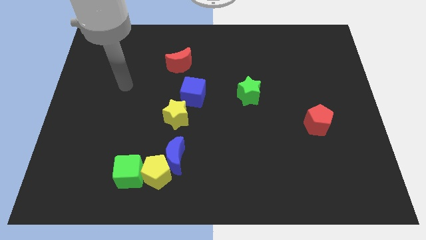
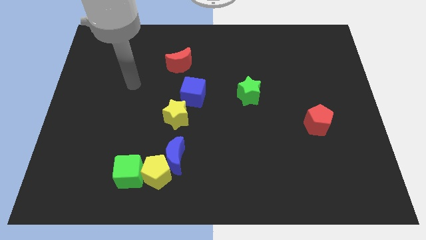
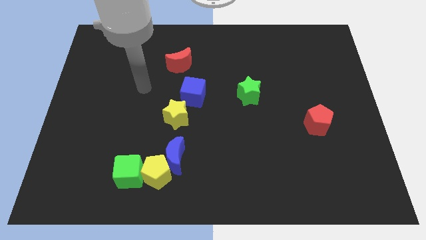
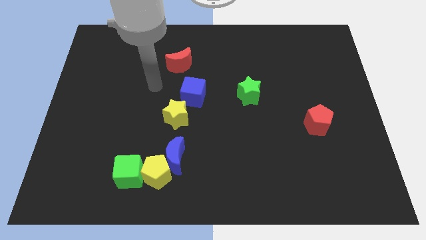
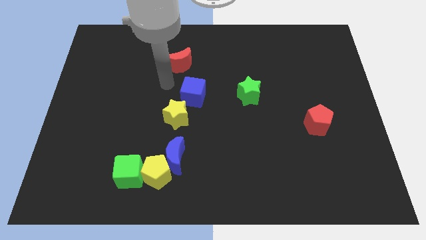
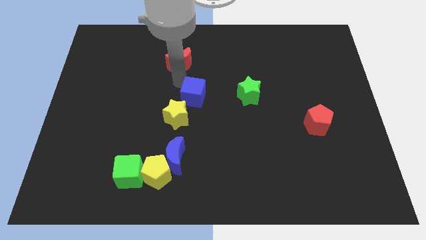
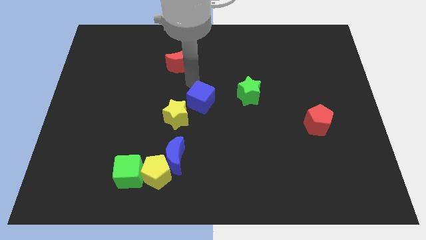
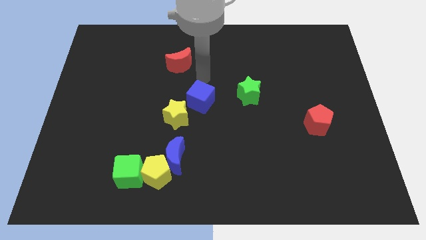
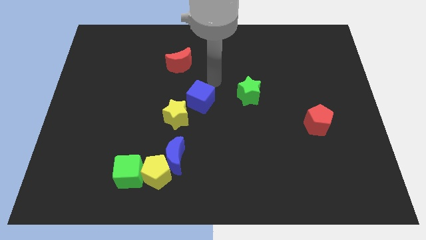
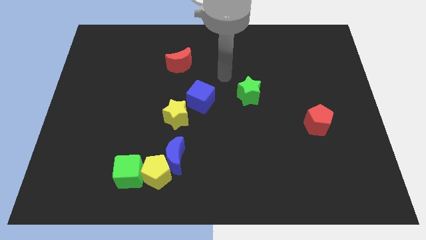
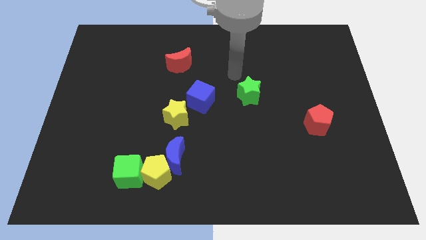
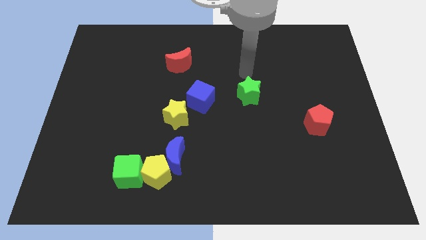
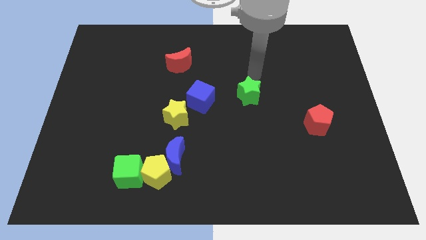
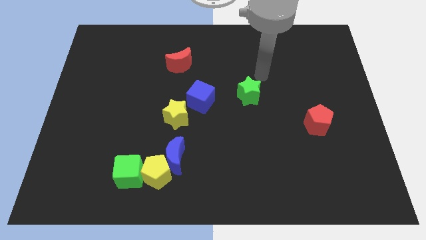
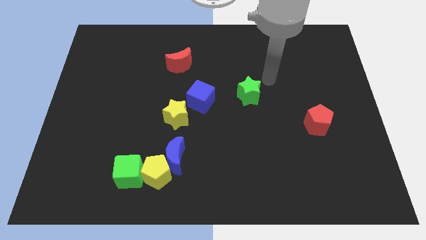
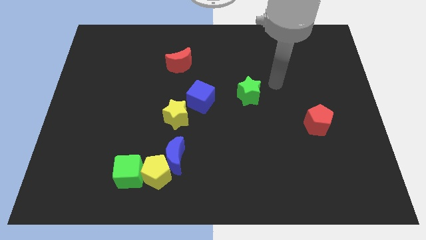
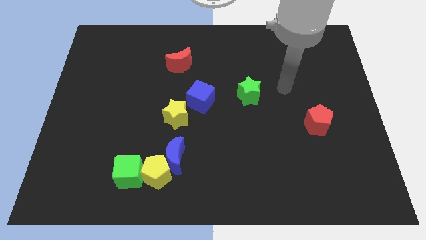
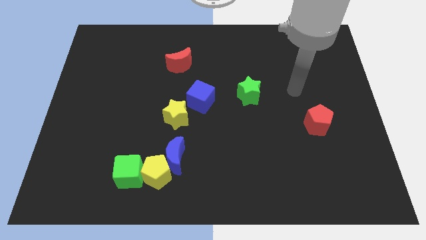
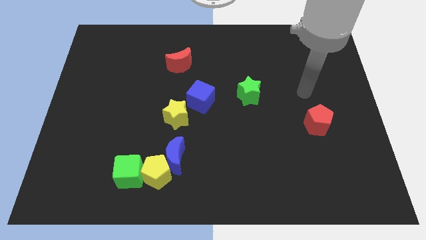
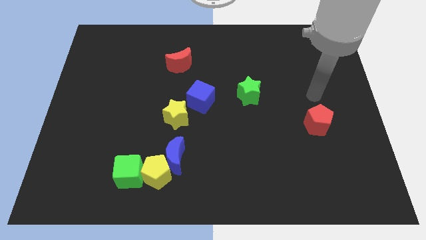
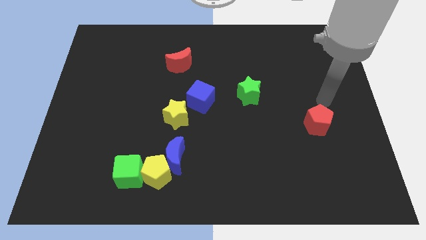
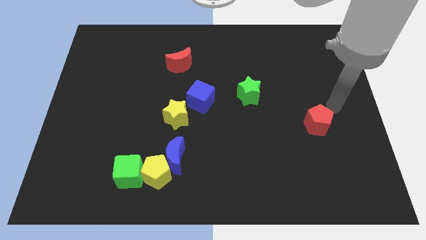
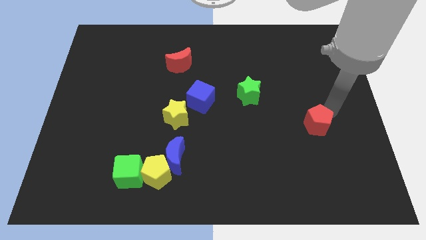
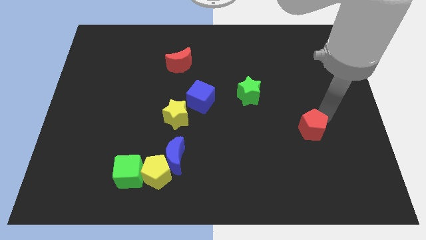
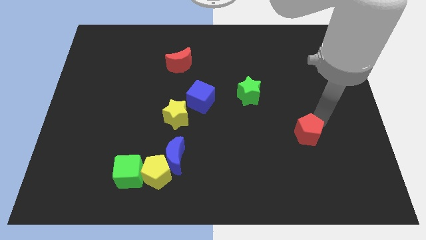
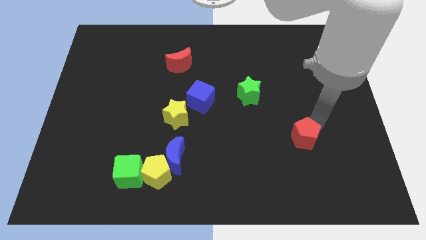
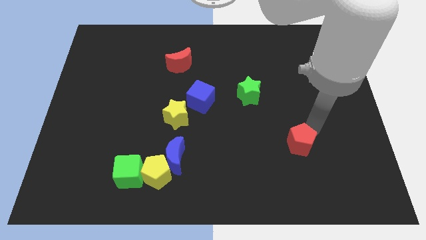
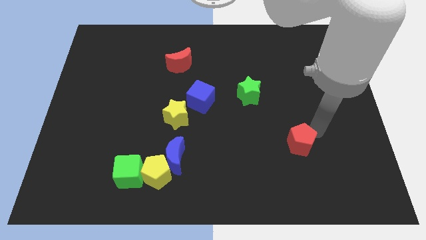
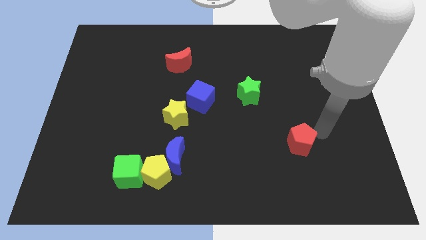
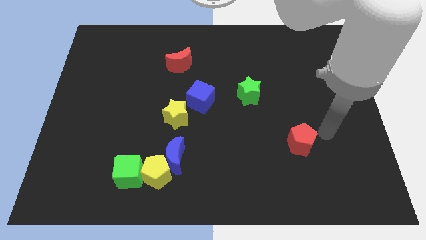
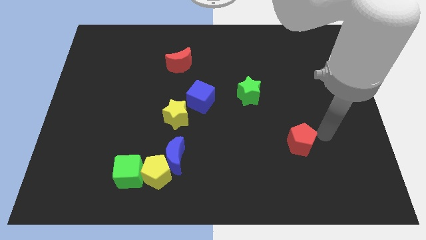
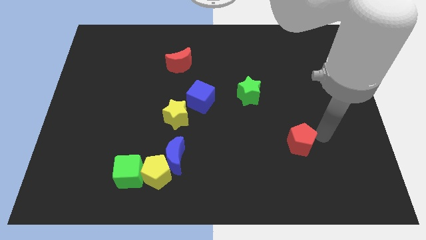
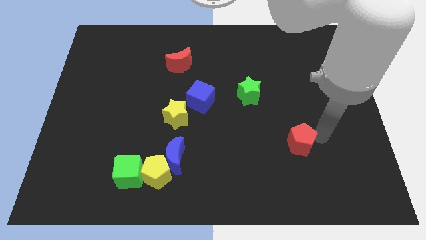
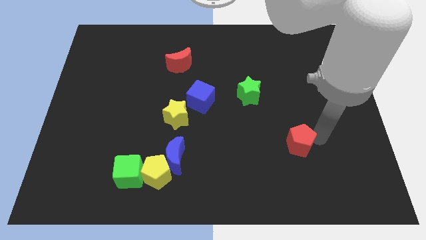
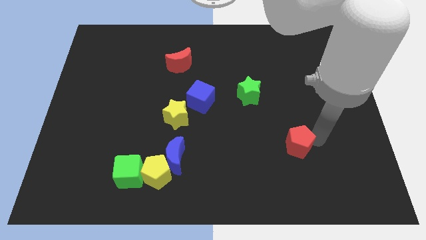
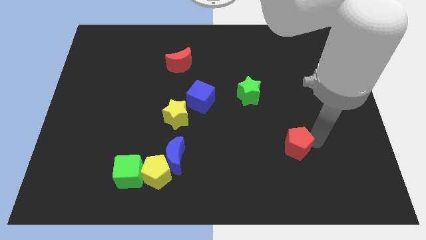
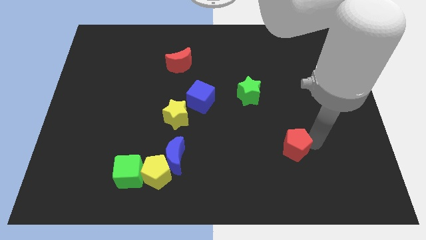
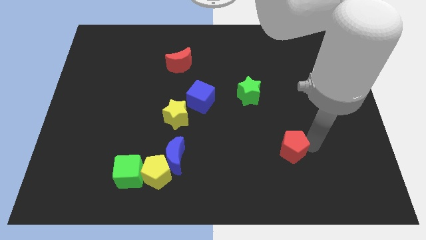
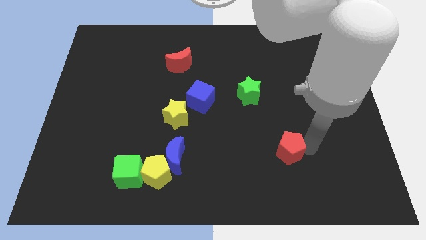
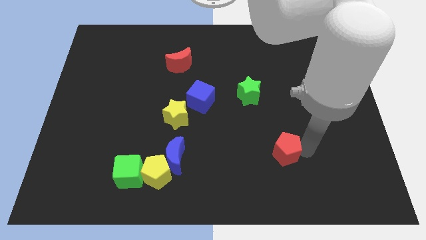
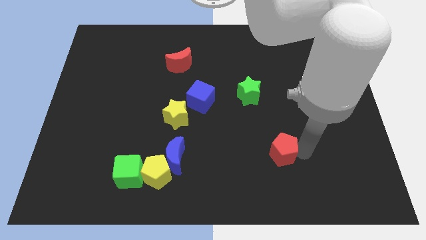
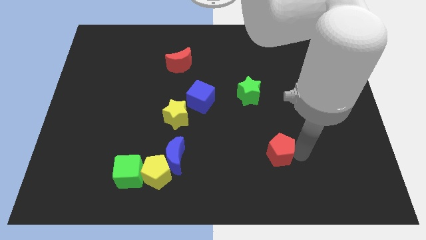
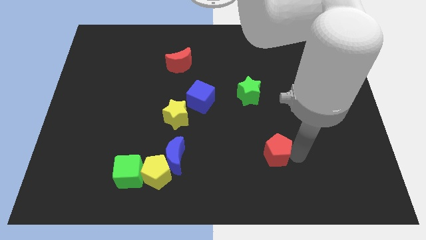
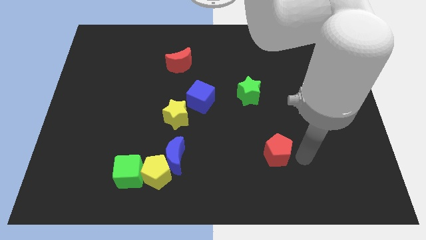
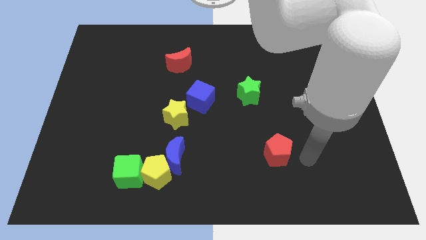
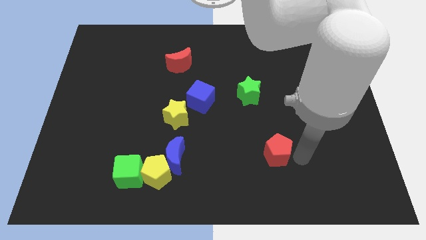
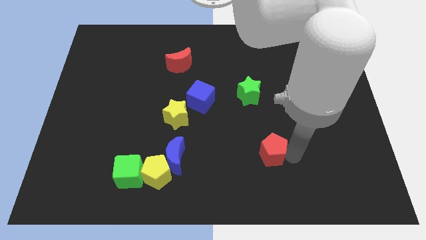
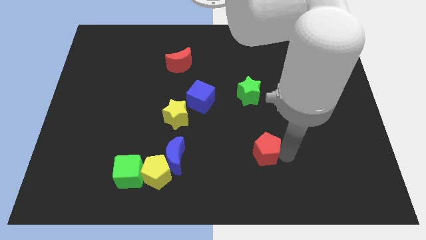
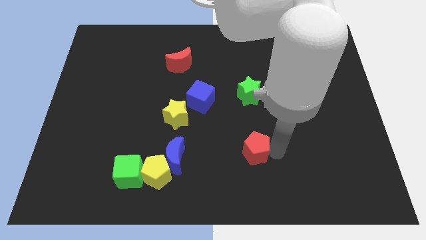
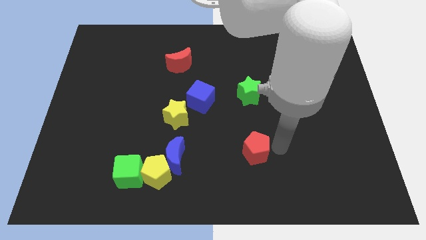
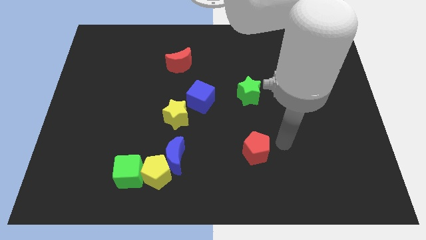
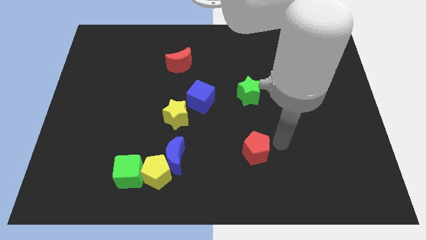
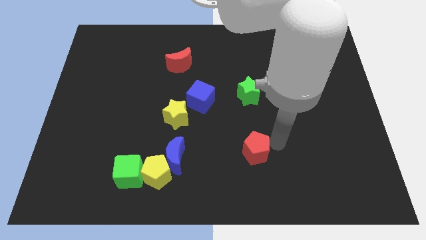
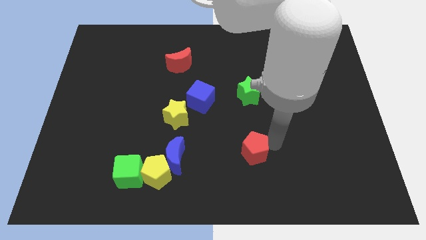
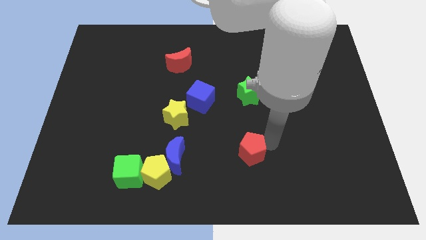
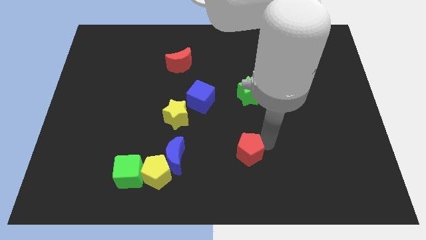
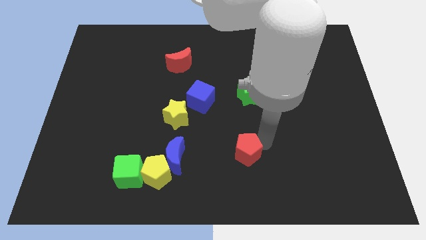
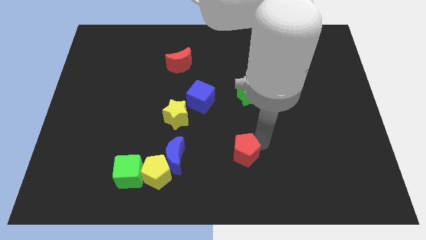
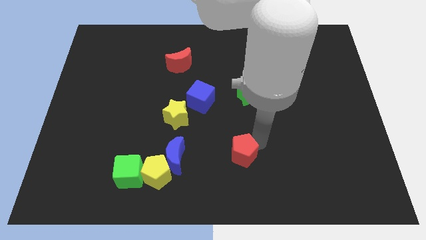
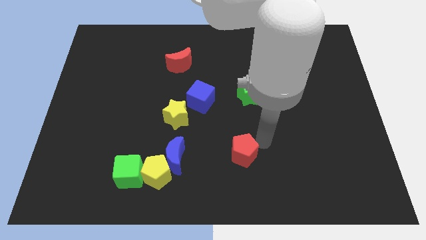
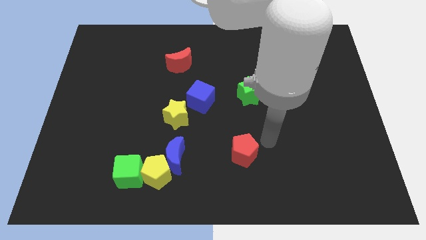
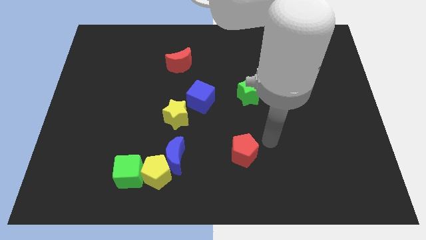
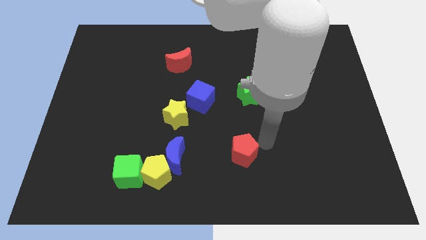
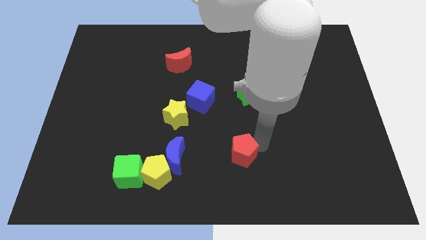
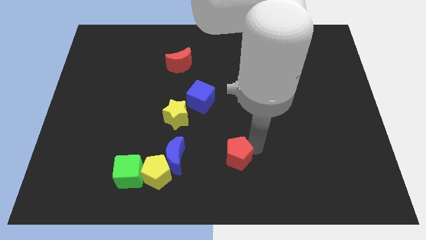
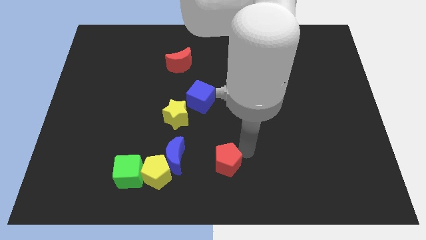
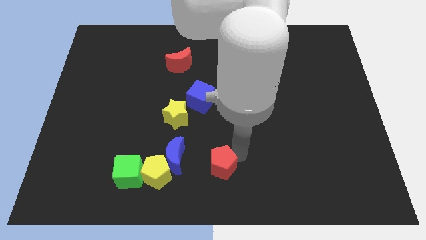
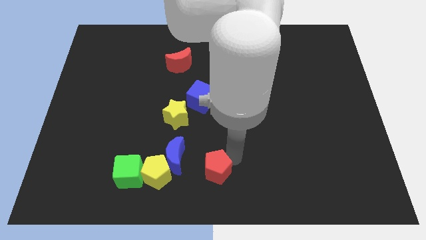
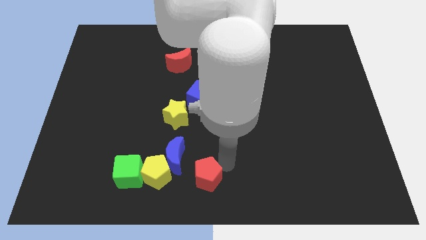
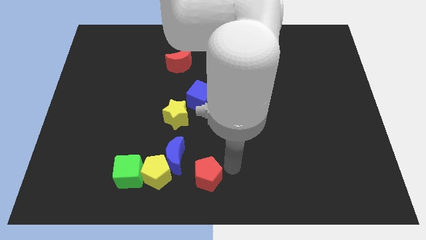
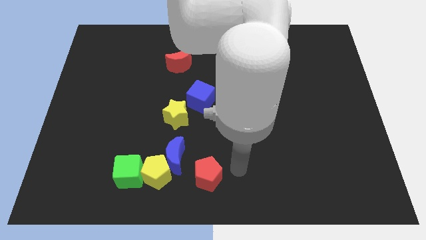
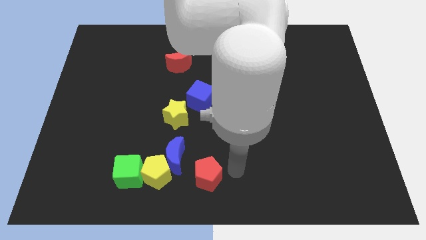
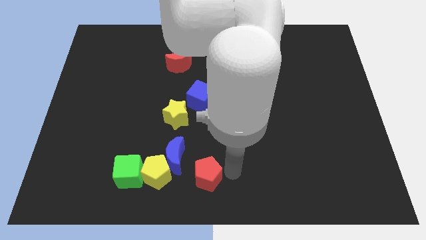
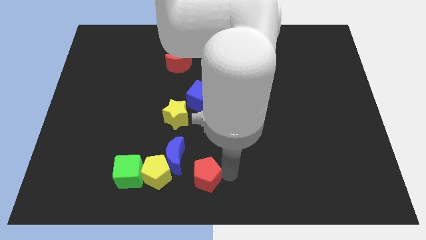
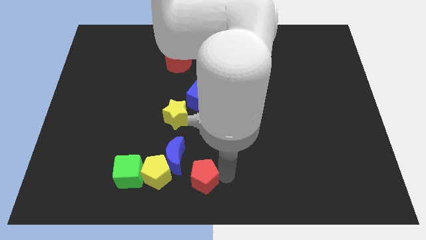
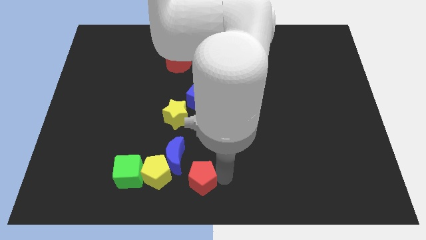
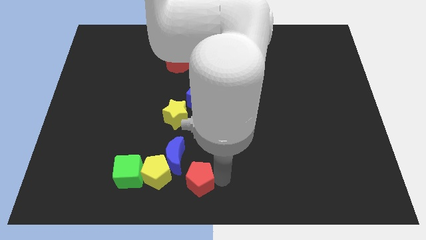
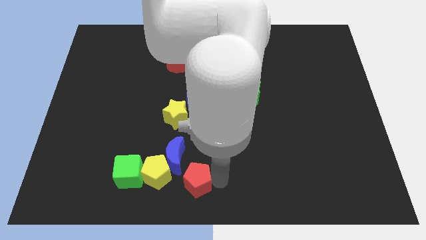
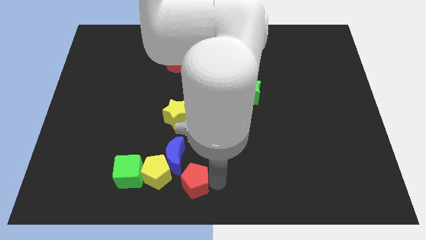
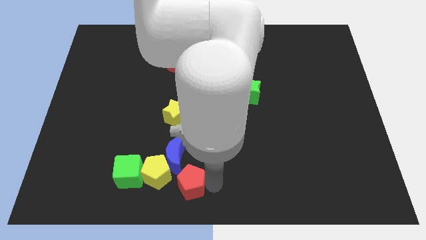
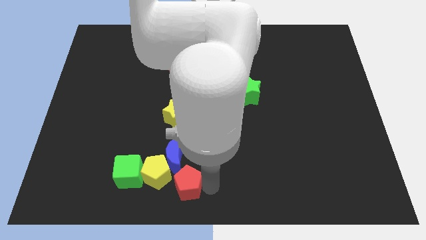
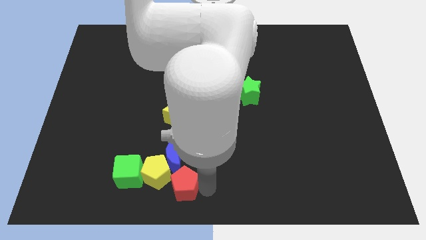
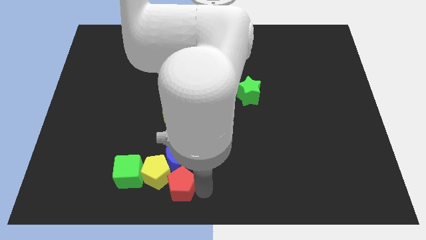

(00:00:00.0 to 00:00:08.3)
slide the red pentagon close to the yellow pentagon
